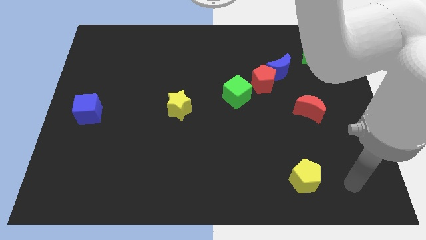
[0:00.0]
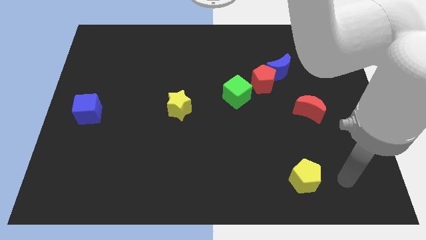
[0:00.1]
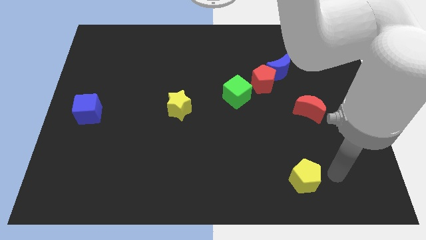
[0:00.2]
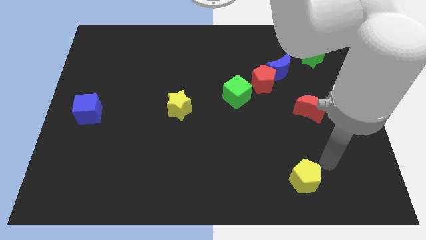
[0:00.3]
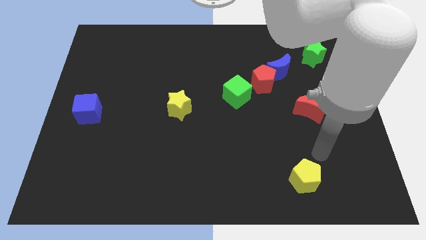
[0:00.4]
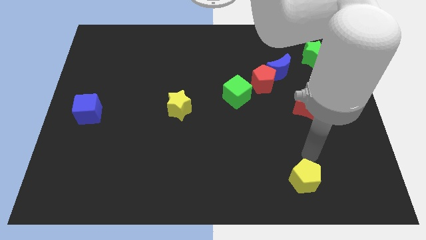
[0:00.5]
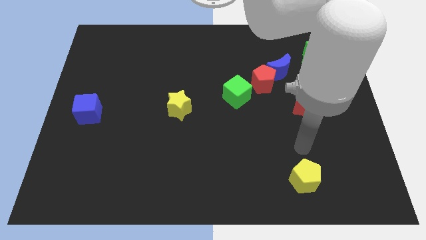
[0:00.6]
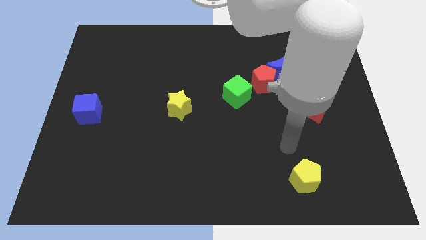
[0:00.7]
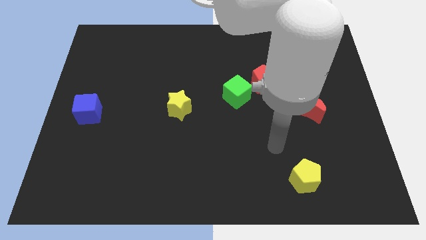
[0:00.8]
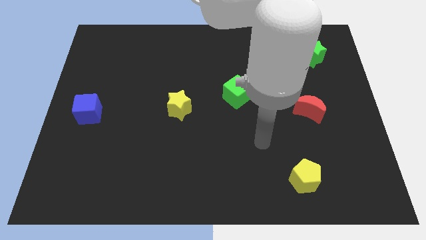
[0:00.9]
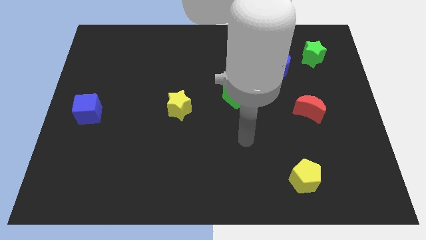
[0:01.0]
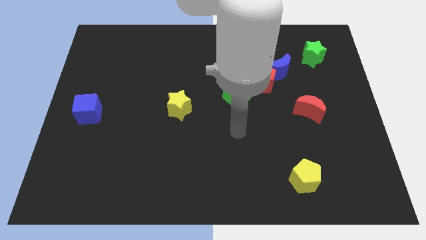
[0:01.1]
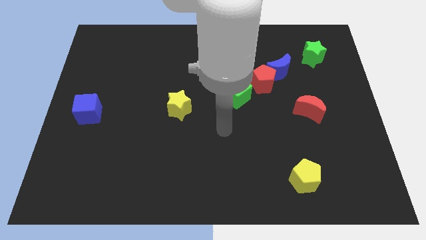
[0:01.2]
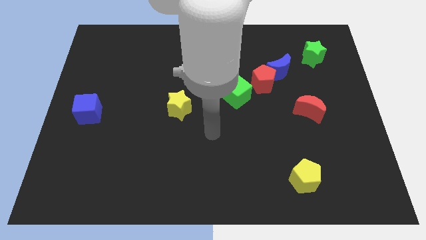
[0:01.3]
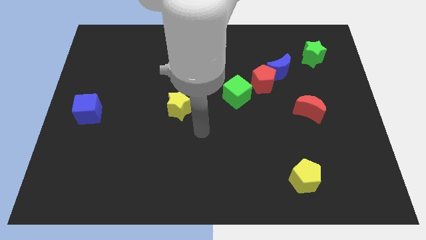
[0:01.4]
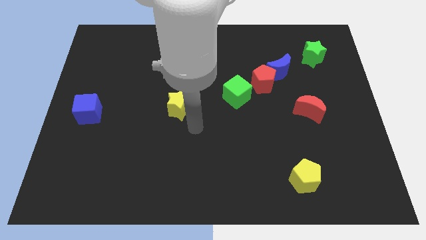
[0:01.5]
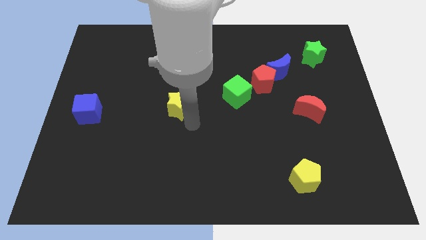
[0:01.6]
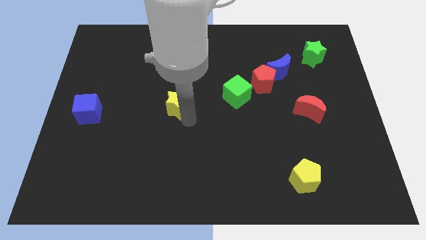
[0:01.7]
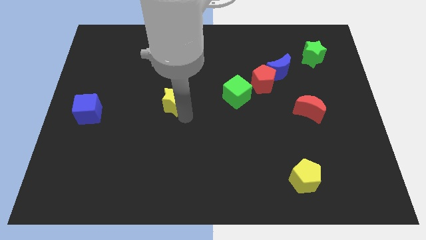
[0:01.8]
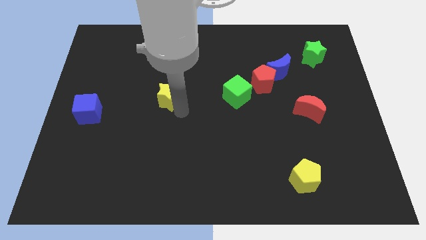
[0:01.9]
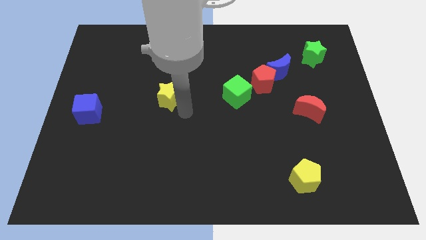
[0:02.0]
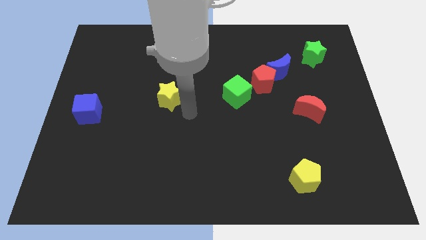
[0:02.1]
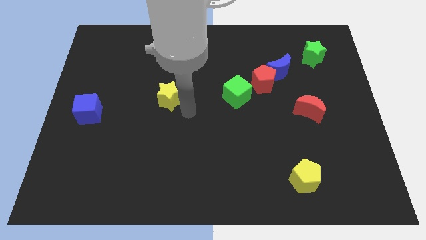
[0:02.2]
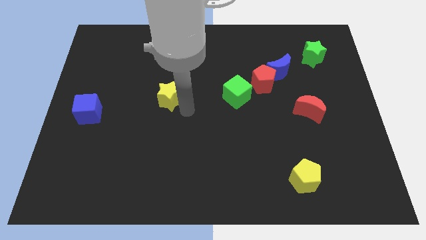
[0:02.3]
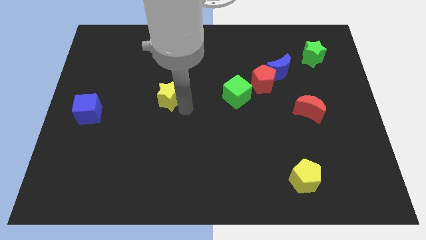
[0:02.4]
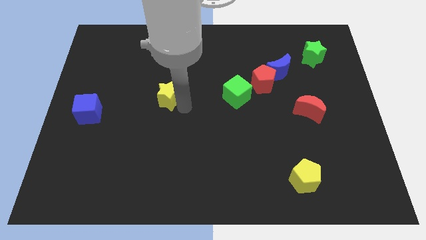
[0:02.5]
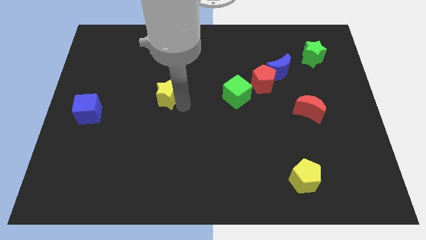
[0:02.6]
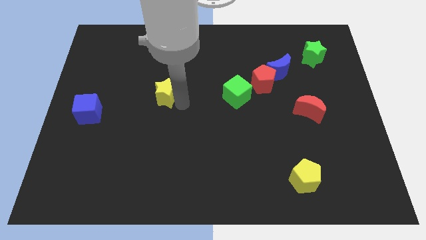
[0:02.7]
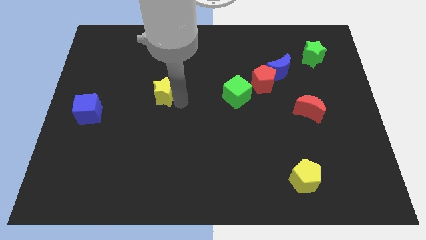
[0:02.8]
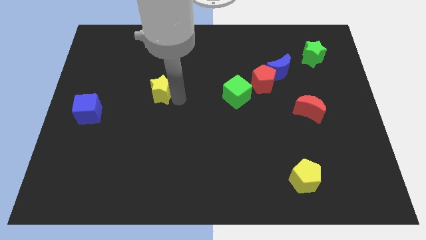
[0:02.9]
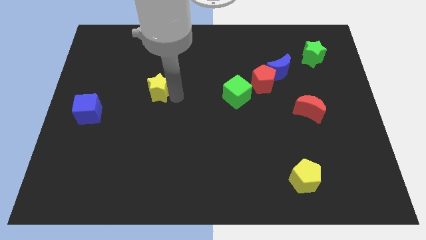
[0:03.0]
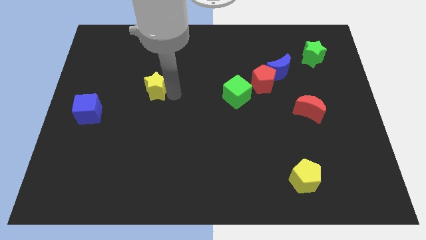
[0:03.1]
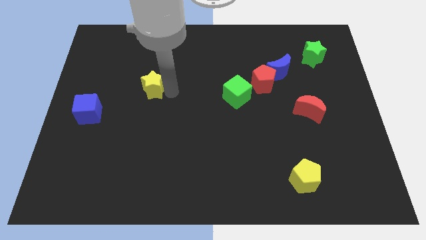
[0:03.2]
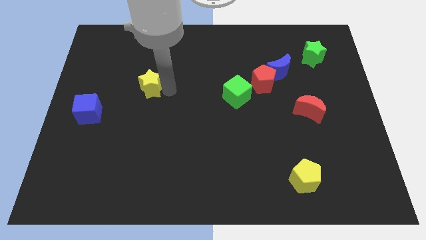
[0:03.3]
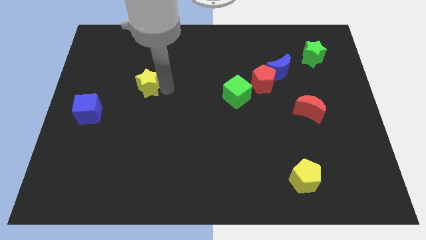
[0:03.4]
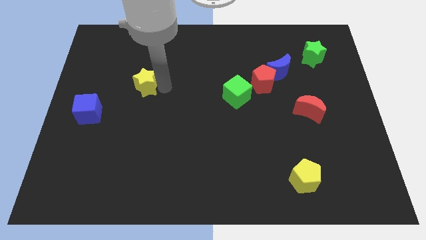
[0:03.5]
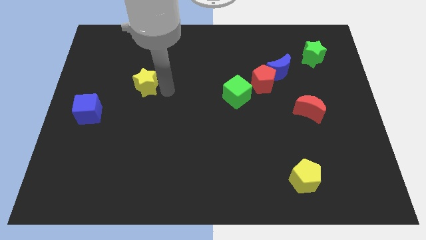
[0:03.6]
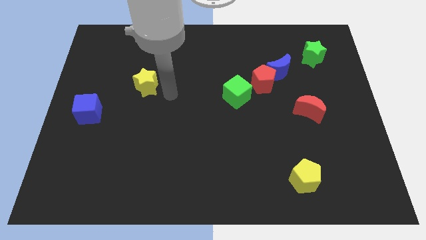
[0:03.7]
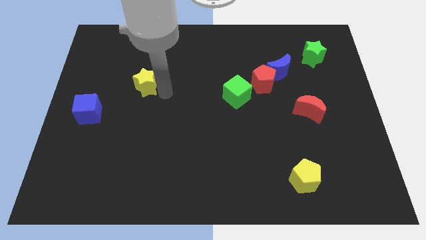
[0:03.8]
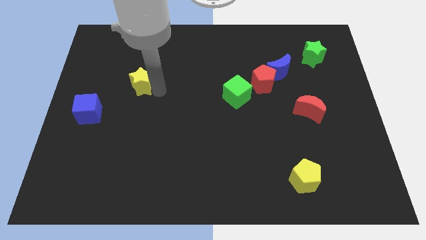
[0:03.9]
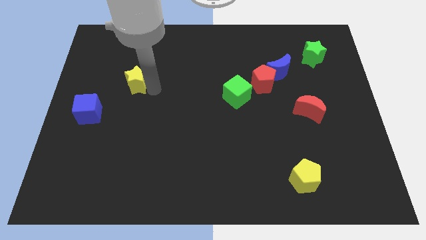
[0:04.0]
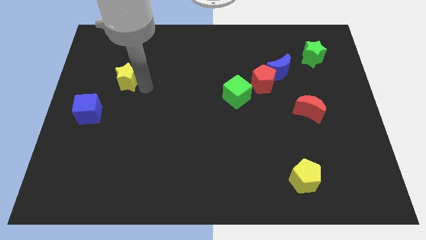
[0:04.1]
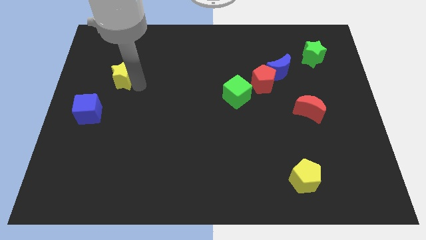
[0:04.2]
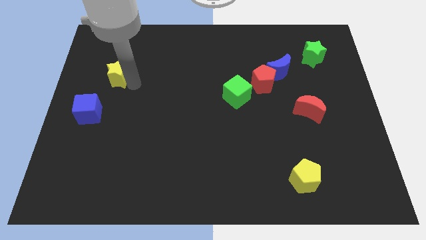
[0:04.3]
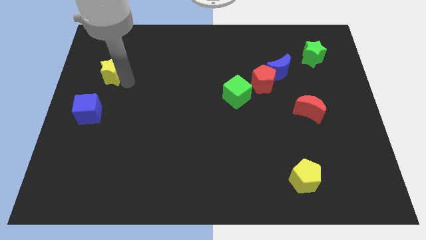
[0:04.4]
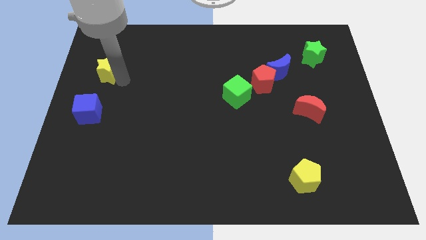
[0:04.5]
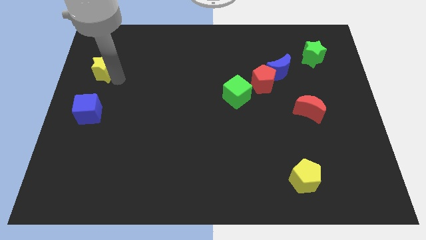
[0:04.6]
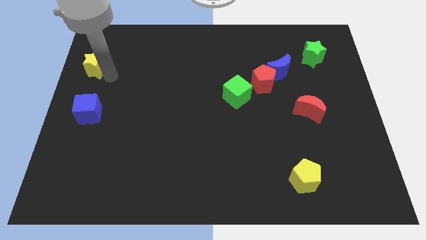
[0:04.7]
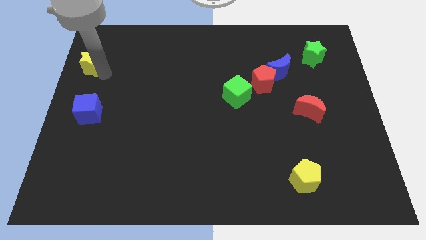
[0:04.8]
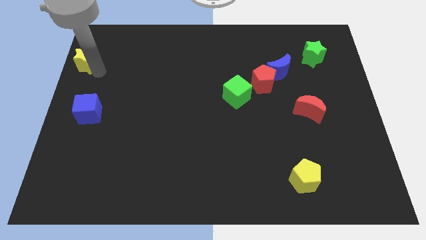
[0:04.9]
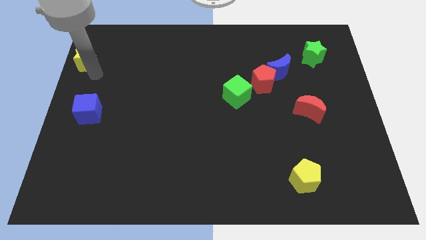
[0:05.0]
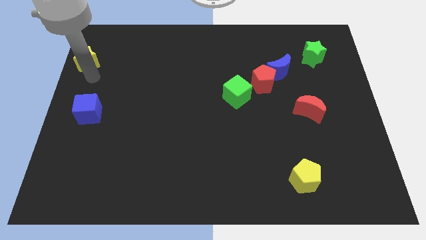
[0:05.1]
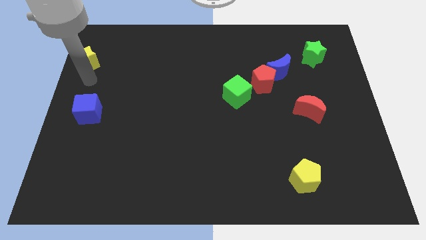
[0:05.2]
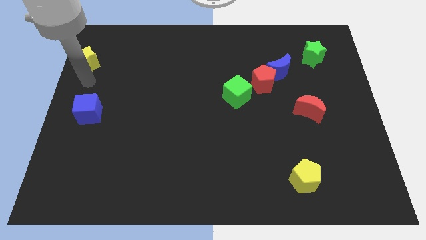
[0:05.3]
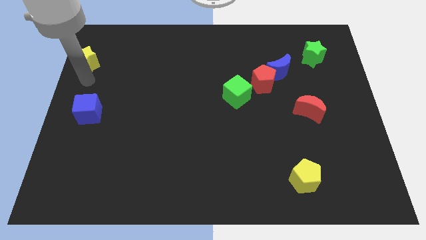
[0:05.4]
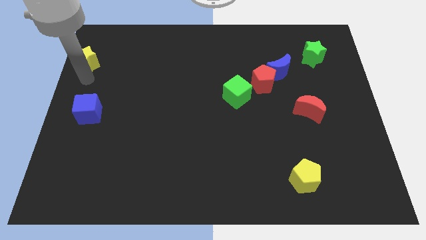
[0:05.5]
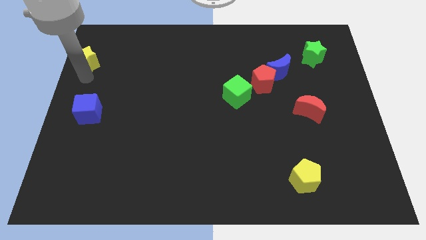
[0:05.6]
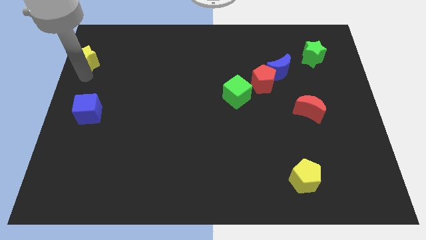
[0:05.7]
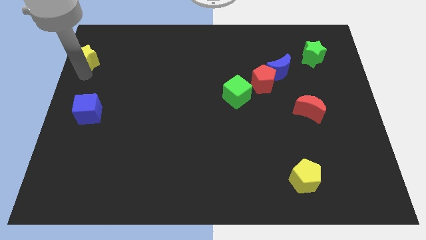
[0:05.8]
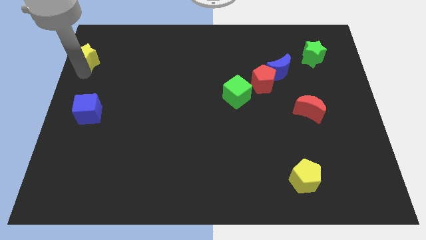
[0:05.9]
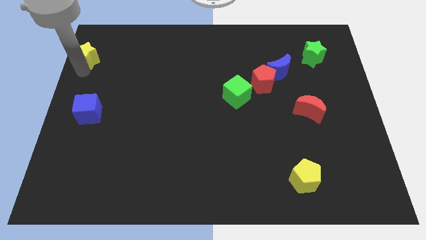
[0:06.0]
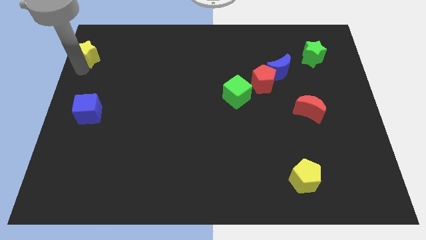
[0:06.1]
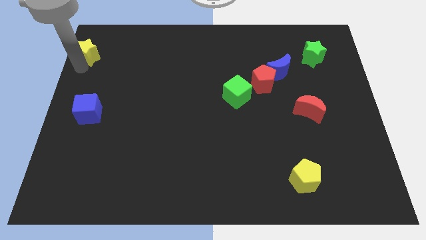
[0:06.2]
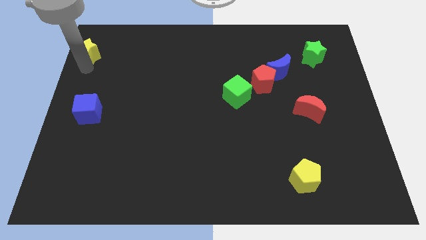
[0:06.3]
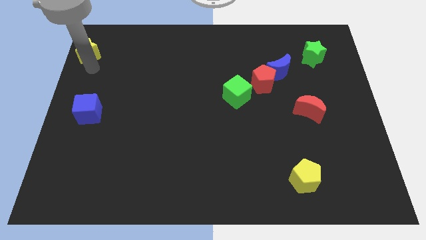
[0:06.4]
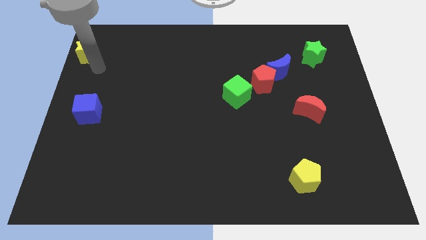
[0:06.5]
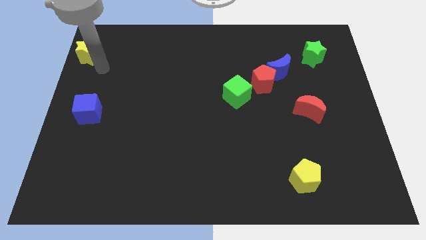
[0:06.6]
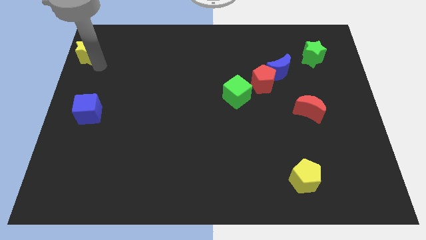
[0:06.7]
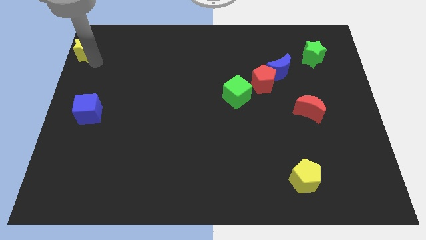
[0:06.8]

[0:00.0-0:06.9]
move the yellow star to the top left corner

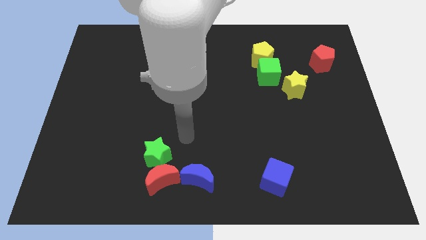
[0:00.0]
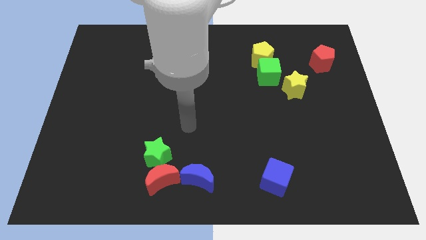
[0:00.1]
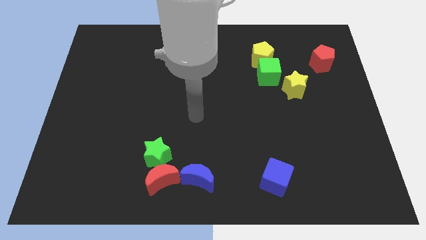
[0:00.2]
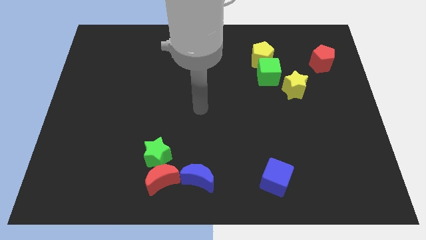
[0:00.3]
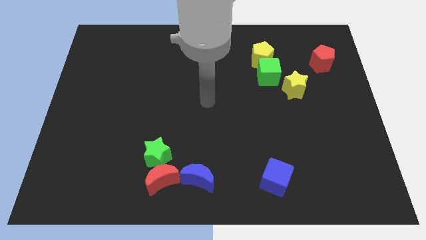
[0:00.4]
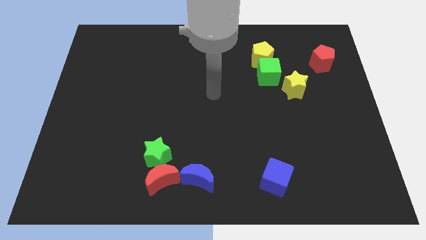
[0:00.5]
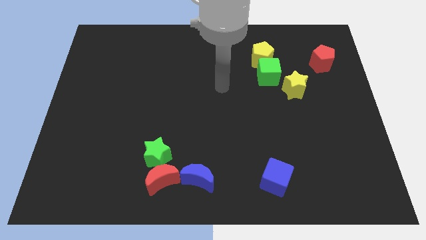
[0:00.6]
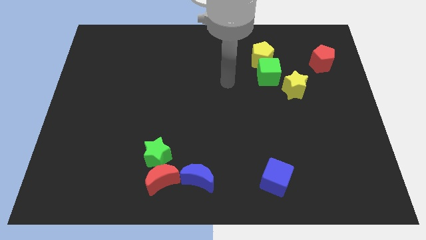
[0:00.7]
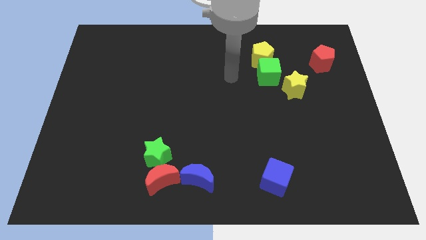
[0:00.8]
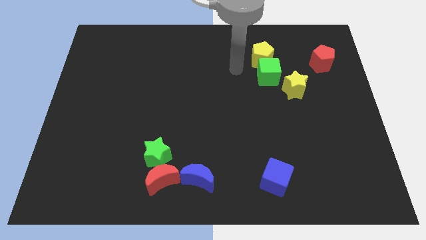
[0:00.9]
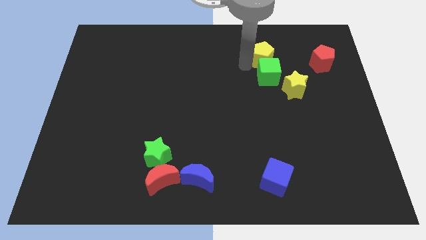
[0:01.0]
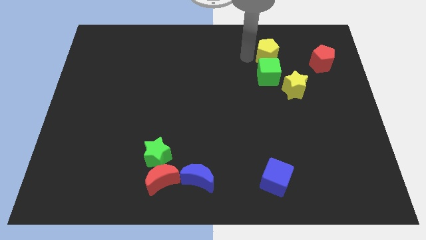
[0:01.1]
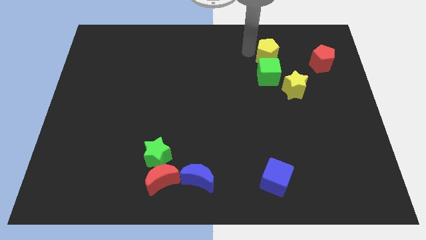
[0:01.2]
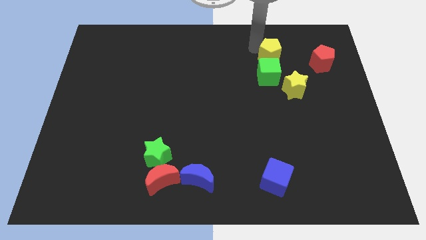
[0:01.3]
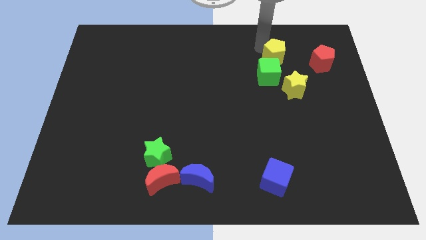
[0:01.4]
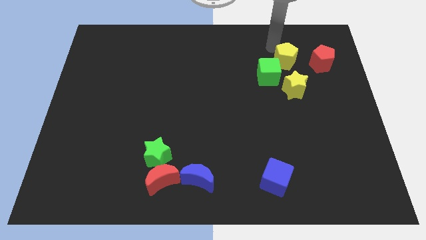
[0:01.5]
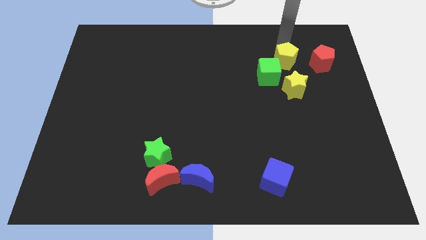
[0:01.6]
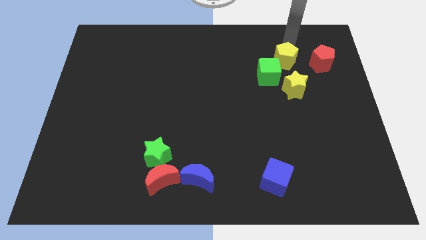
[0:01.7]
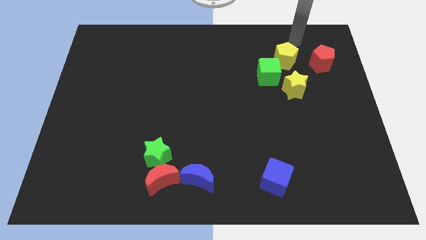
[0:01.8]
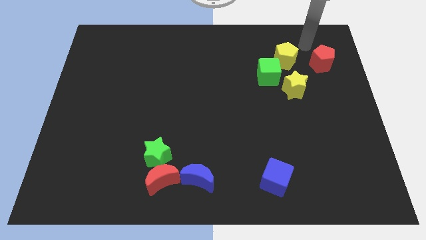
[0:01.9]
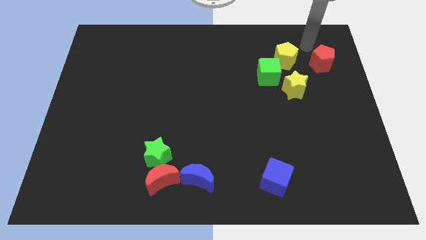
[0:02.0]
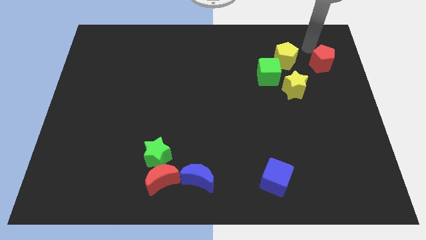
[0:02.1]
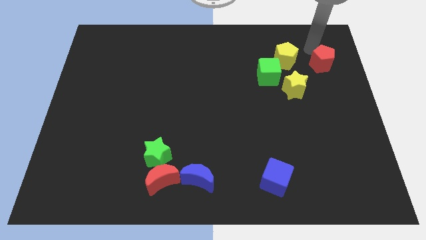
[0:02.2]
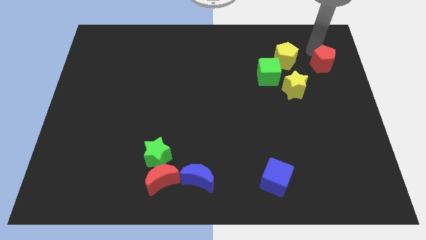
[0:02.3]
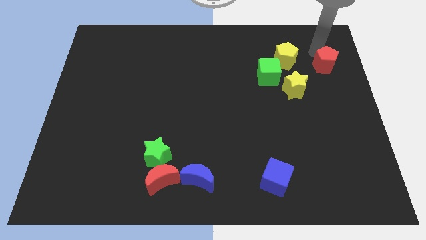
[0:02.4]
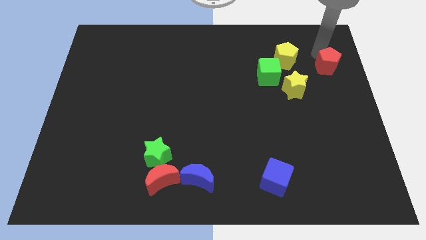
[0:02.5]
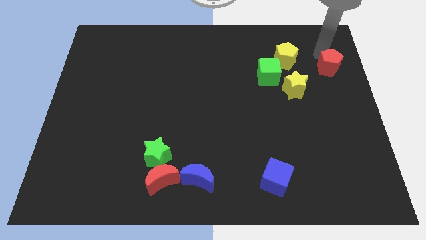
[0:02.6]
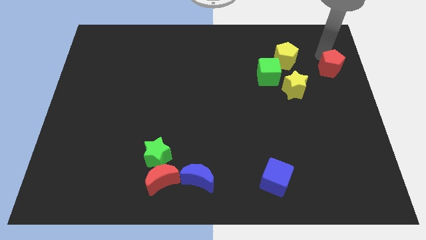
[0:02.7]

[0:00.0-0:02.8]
move the red pentagon to the right side of the board
